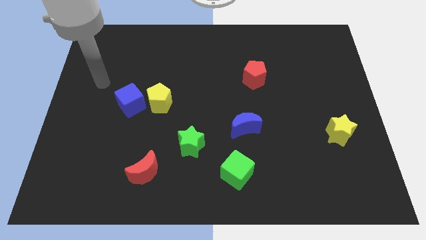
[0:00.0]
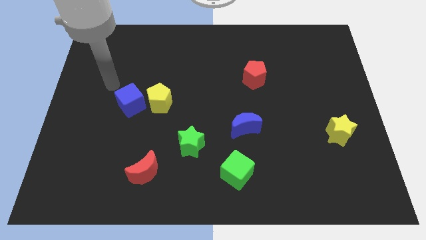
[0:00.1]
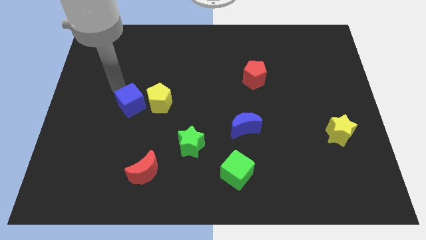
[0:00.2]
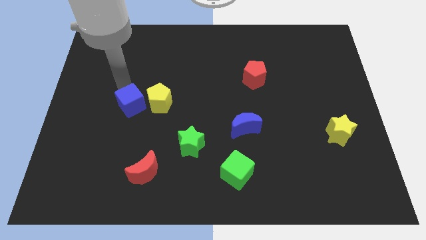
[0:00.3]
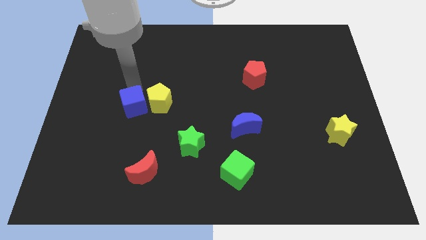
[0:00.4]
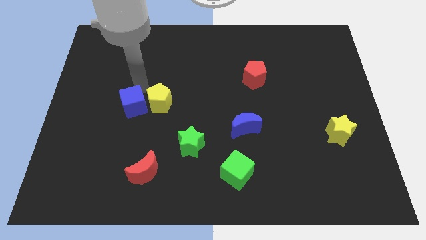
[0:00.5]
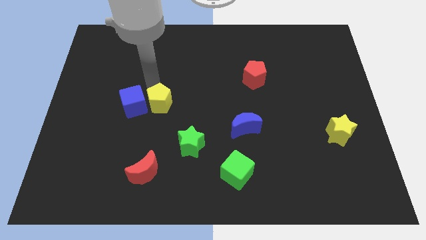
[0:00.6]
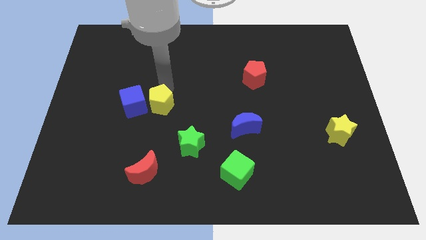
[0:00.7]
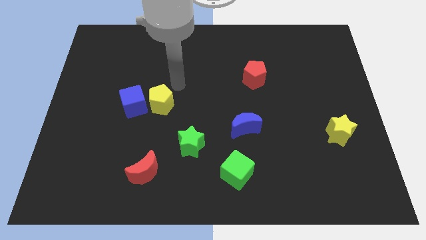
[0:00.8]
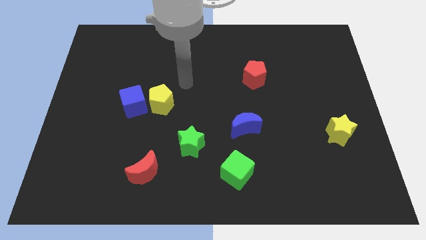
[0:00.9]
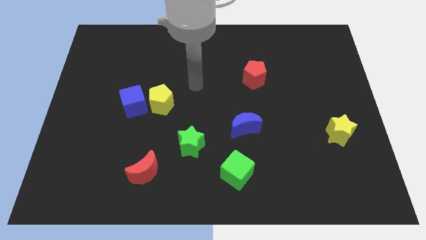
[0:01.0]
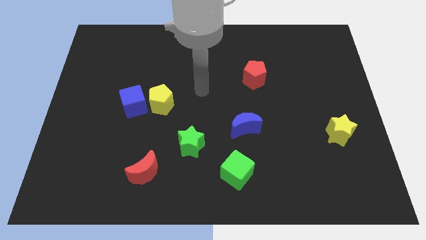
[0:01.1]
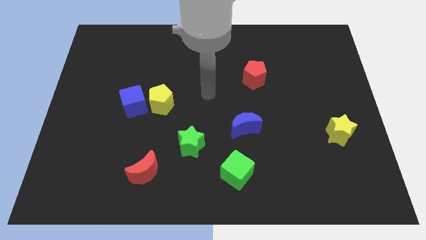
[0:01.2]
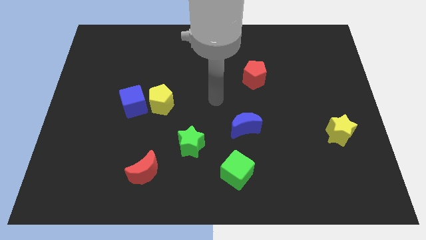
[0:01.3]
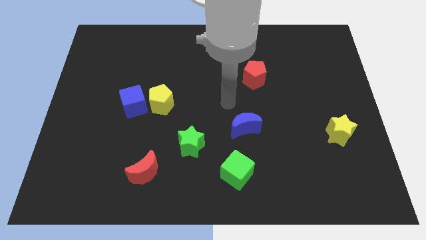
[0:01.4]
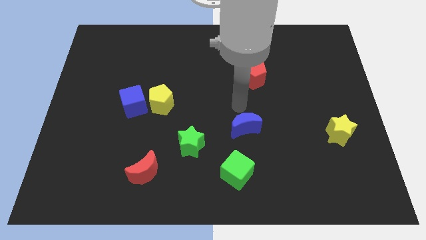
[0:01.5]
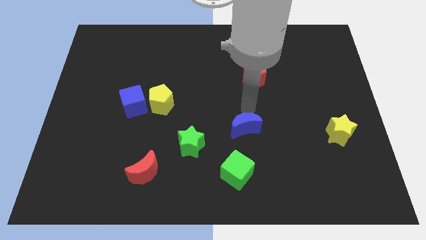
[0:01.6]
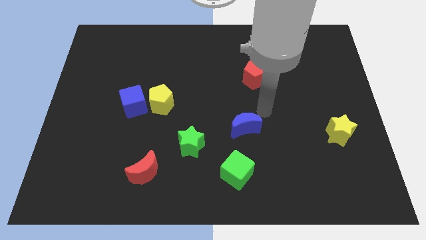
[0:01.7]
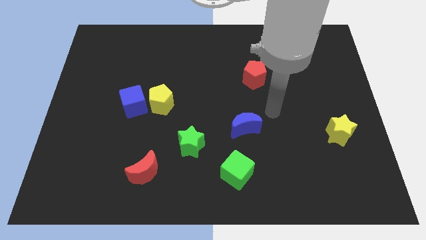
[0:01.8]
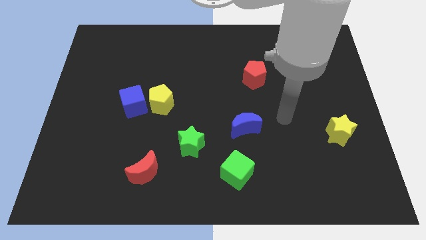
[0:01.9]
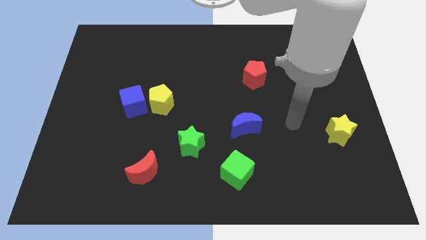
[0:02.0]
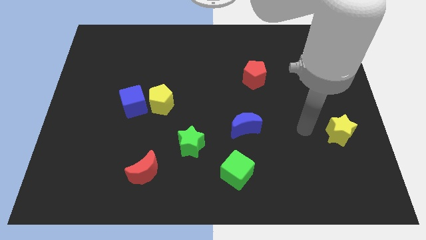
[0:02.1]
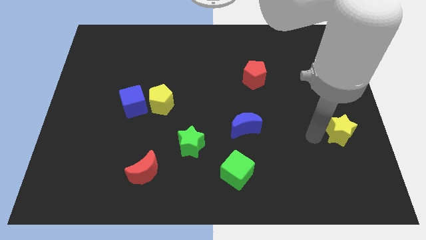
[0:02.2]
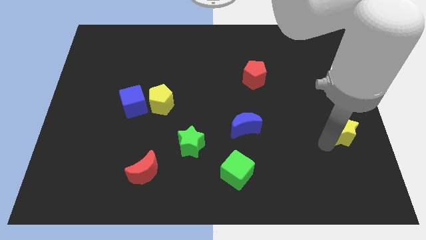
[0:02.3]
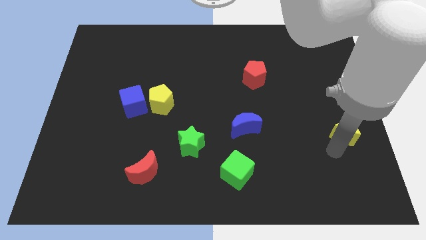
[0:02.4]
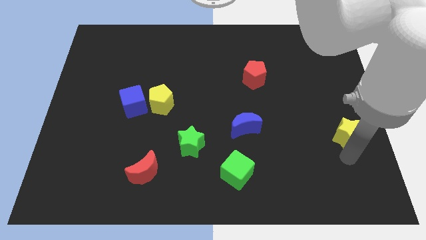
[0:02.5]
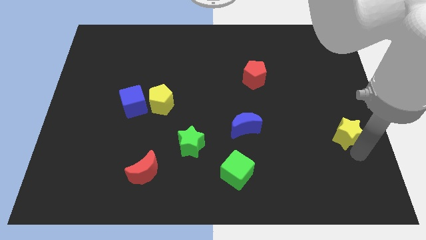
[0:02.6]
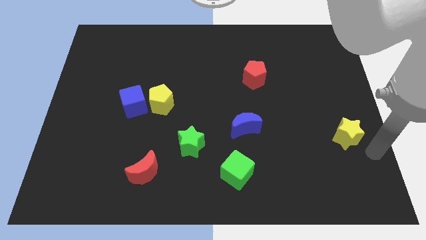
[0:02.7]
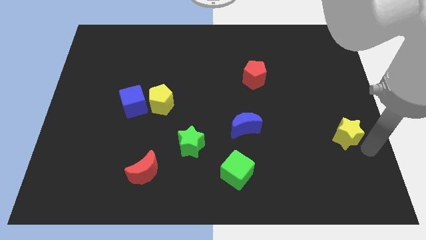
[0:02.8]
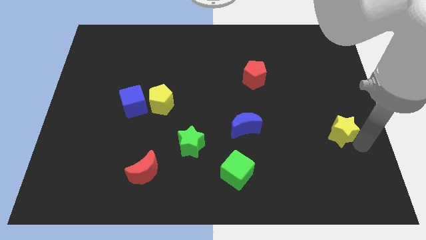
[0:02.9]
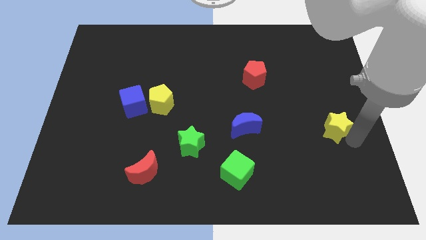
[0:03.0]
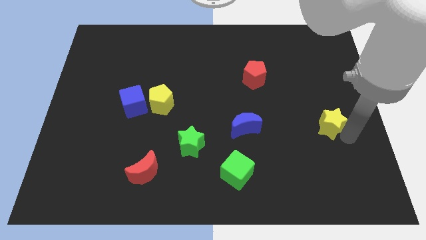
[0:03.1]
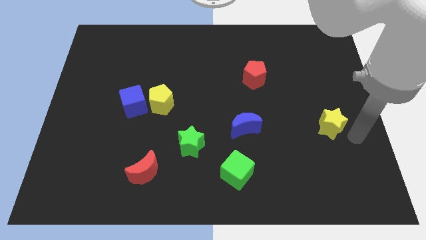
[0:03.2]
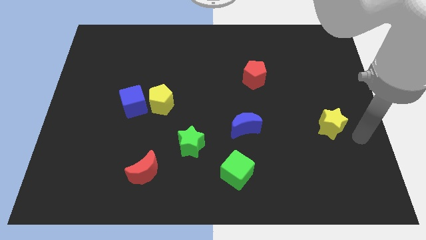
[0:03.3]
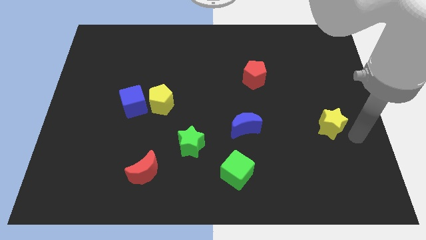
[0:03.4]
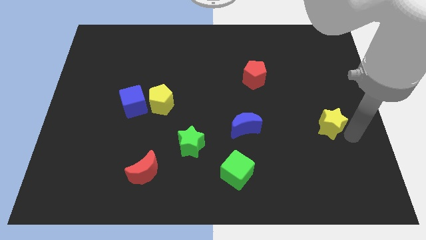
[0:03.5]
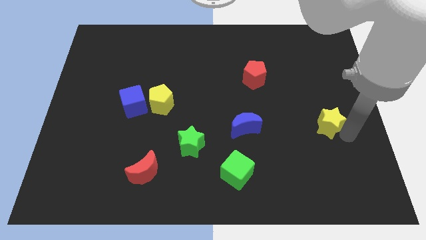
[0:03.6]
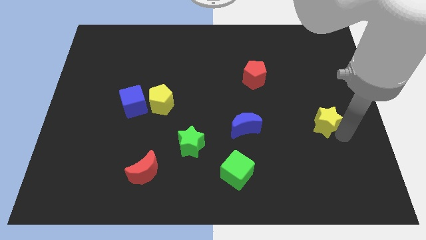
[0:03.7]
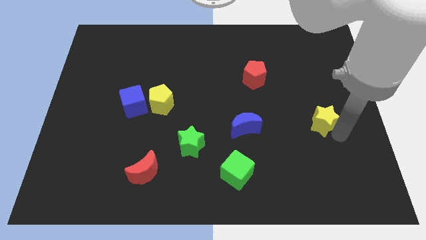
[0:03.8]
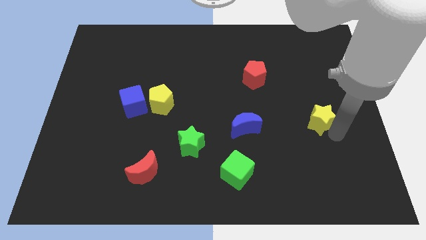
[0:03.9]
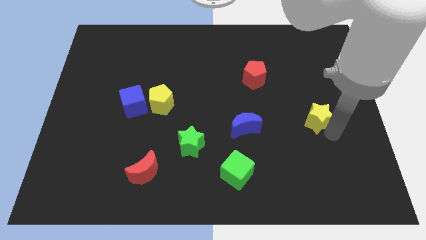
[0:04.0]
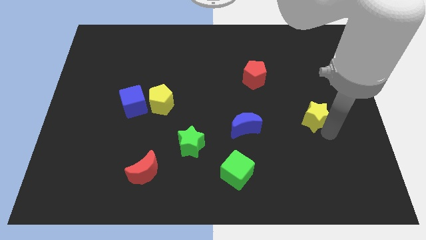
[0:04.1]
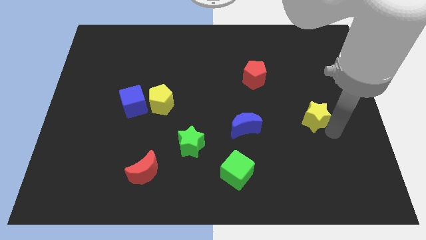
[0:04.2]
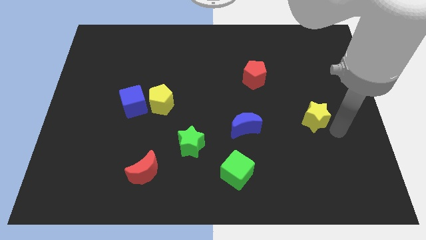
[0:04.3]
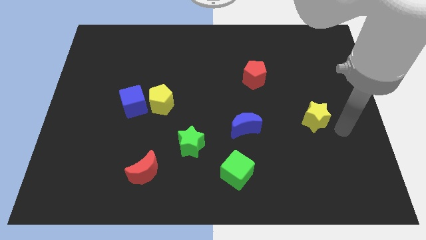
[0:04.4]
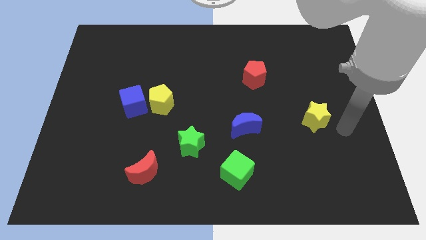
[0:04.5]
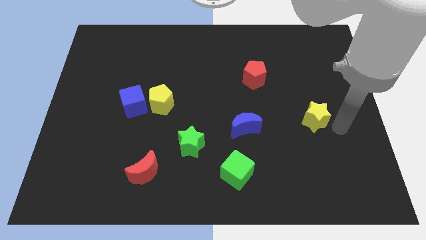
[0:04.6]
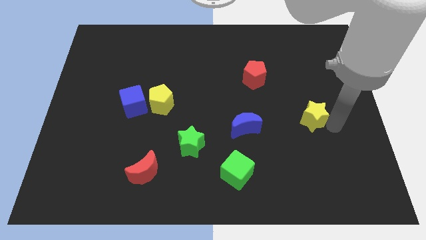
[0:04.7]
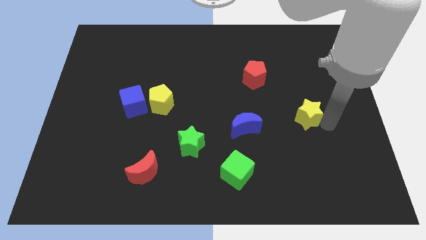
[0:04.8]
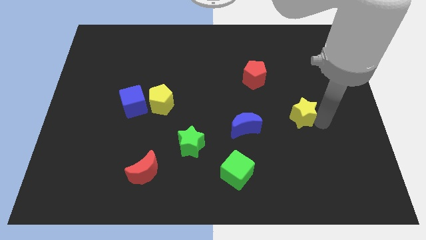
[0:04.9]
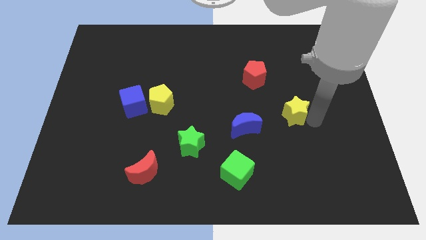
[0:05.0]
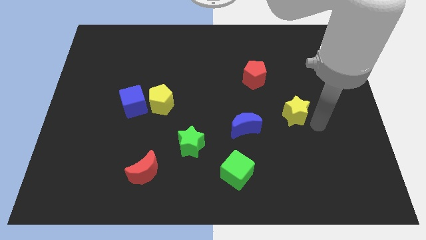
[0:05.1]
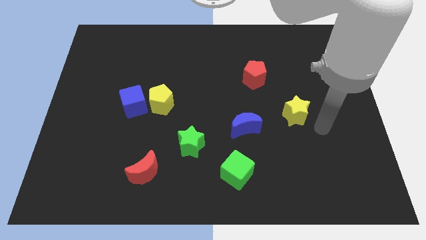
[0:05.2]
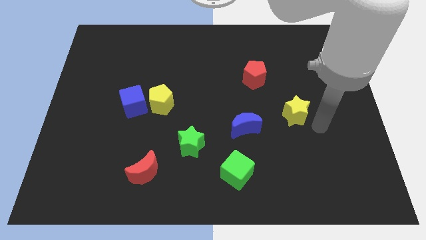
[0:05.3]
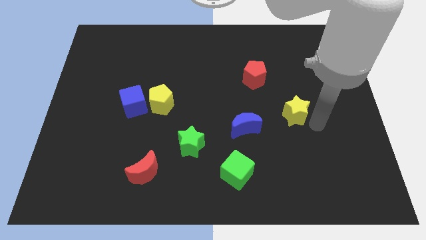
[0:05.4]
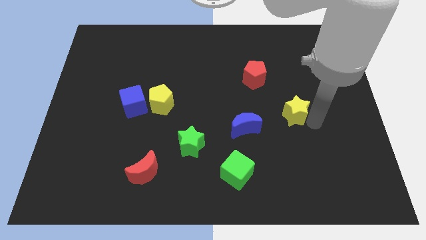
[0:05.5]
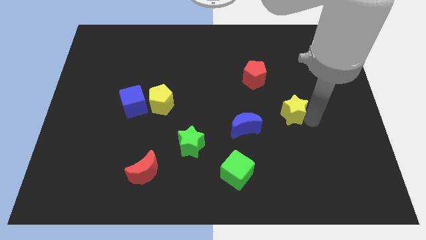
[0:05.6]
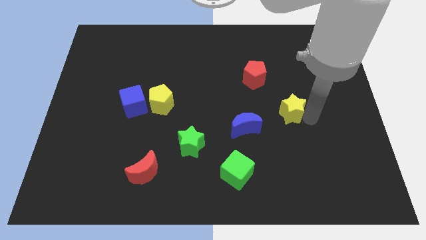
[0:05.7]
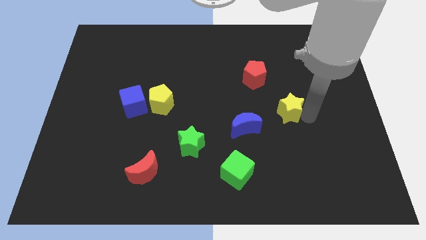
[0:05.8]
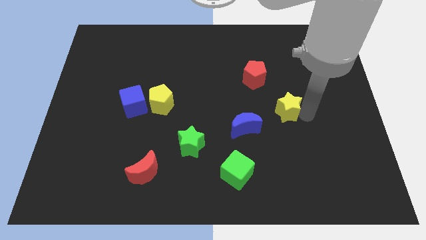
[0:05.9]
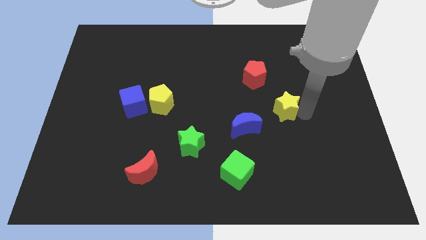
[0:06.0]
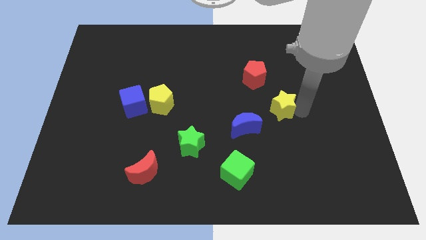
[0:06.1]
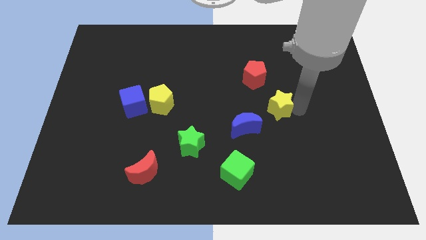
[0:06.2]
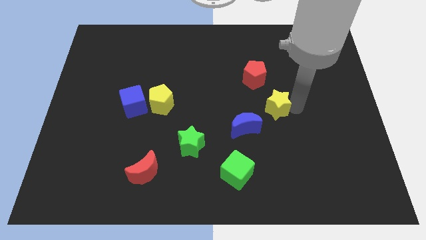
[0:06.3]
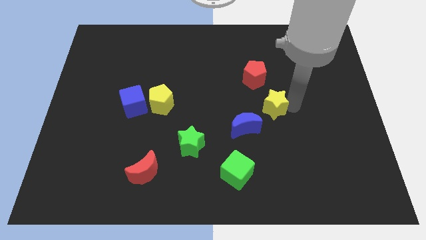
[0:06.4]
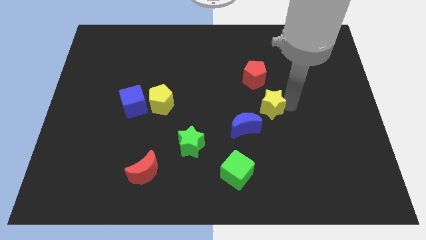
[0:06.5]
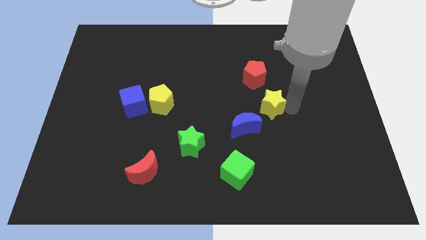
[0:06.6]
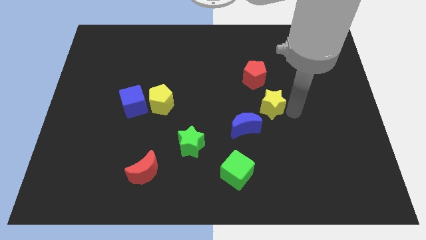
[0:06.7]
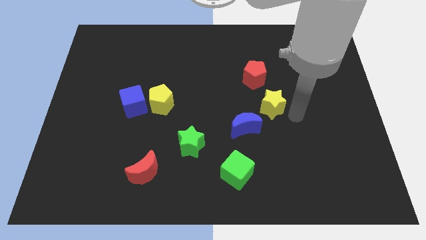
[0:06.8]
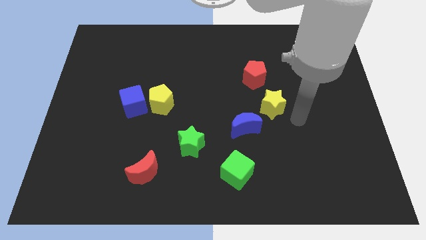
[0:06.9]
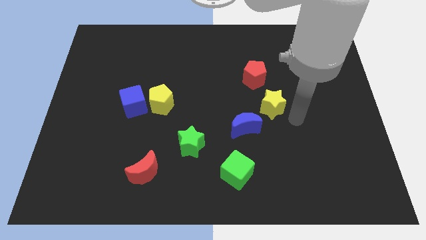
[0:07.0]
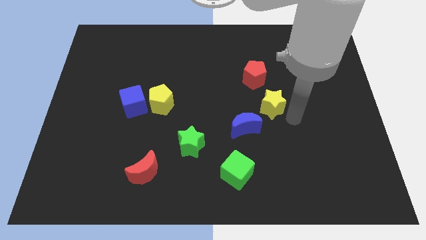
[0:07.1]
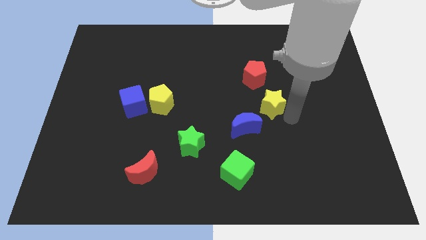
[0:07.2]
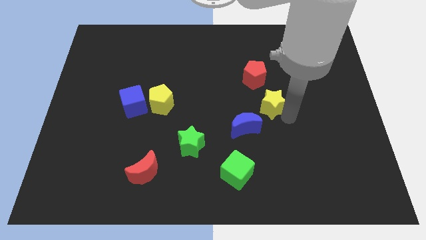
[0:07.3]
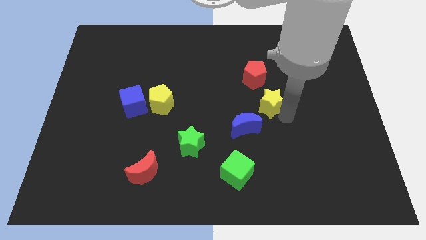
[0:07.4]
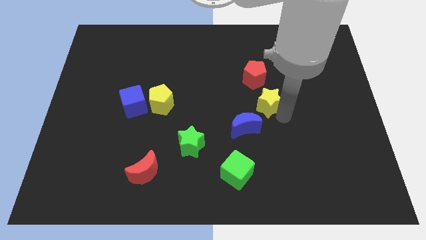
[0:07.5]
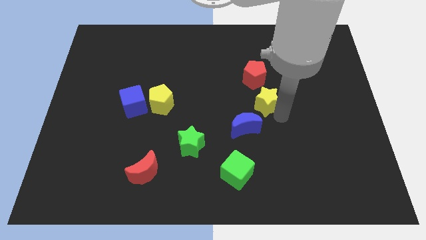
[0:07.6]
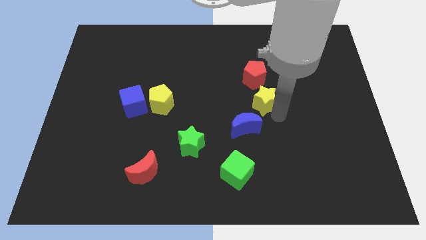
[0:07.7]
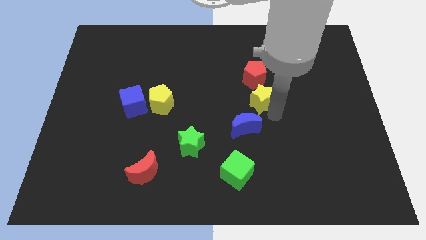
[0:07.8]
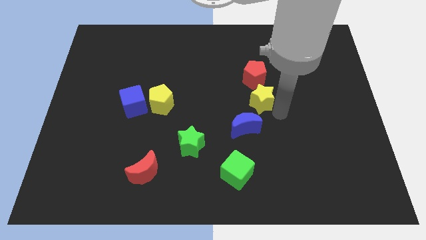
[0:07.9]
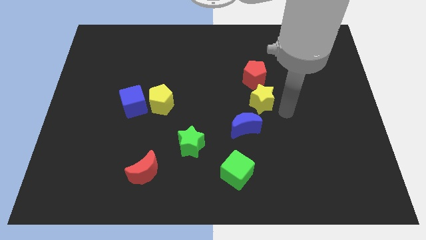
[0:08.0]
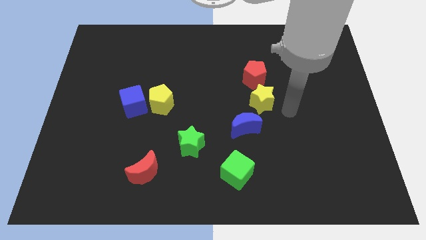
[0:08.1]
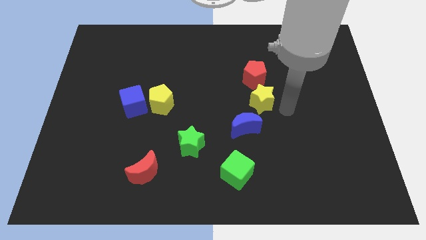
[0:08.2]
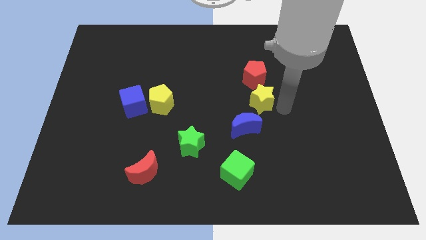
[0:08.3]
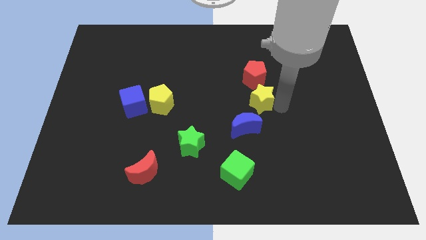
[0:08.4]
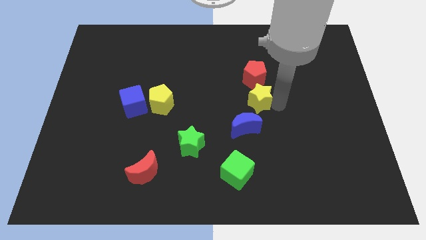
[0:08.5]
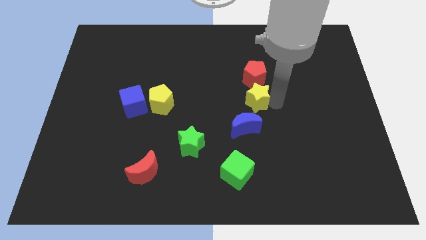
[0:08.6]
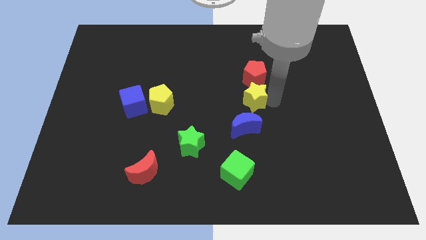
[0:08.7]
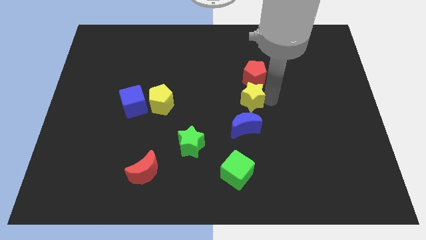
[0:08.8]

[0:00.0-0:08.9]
put the yellow star to the bottom left of the red pentagon
